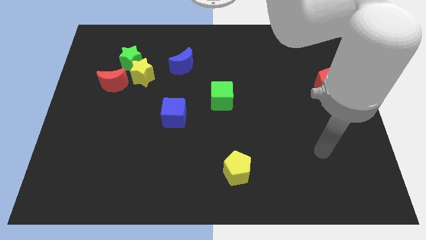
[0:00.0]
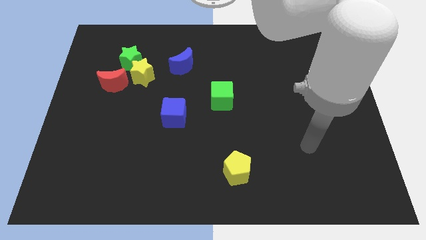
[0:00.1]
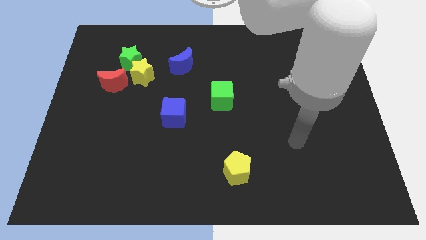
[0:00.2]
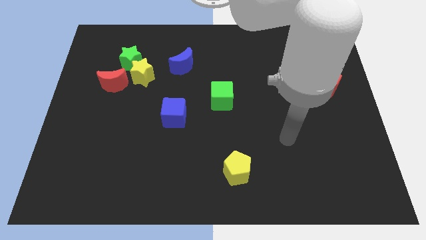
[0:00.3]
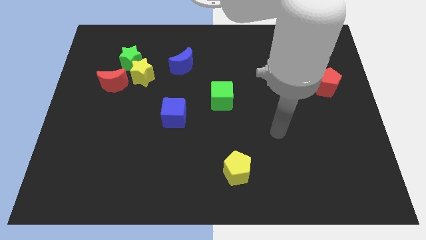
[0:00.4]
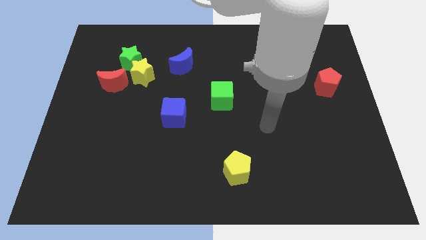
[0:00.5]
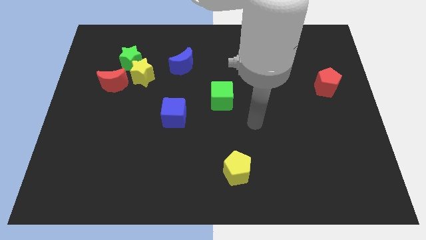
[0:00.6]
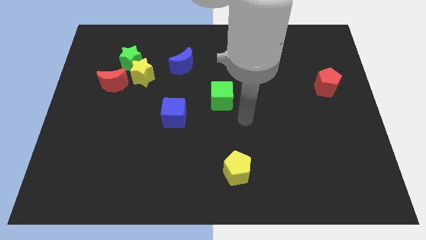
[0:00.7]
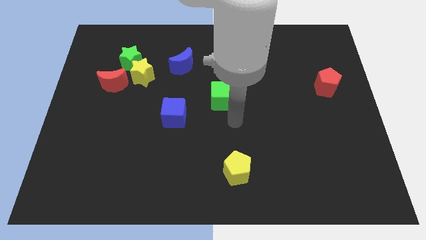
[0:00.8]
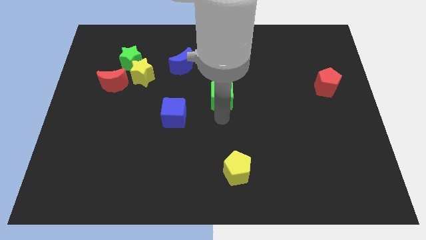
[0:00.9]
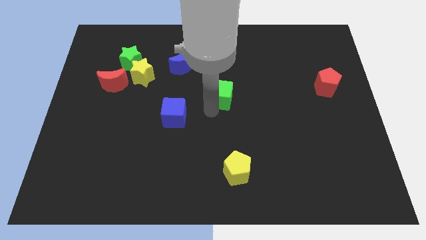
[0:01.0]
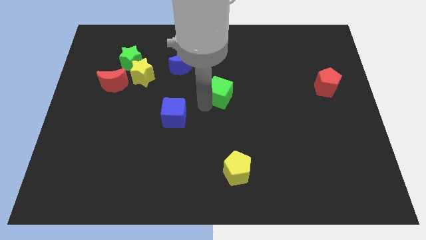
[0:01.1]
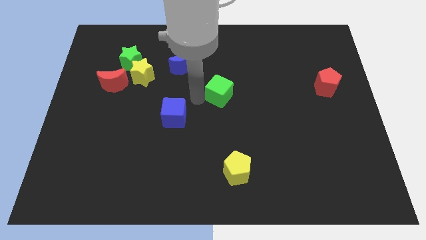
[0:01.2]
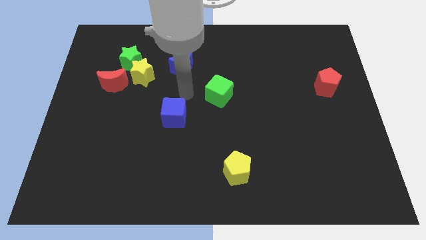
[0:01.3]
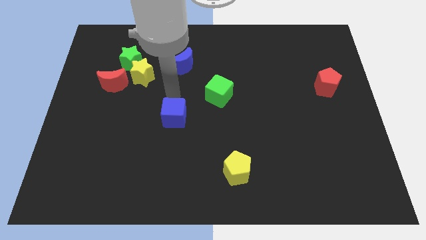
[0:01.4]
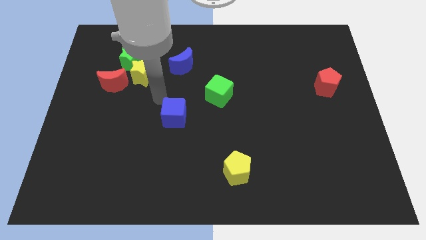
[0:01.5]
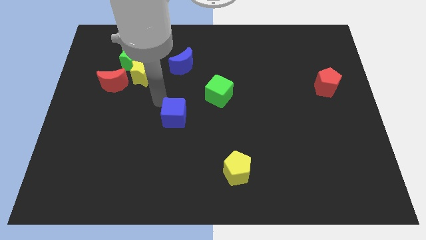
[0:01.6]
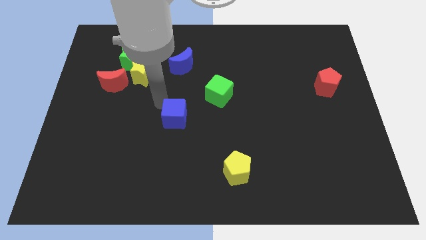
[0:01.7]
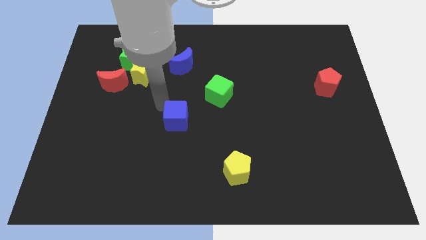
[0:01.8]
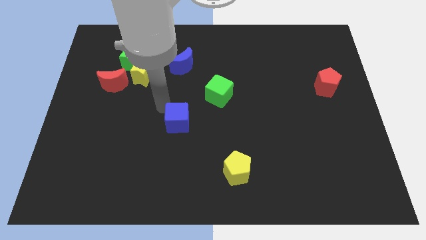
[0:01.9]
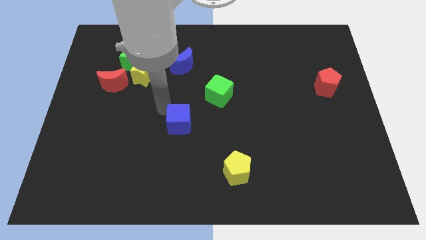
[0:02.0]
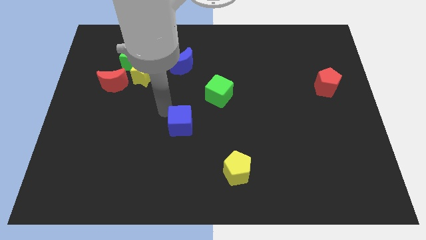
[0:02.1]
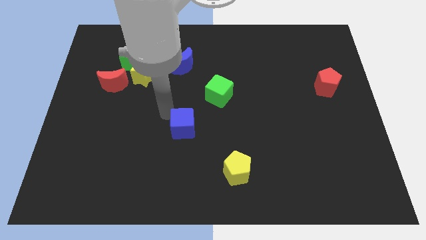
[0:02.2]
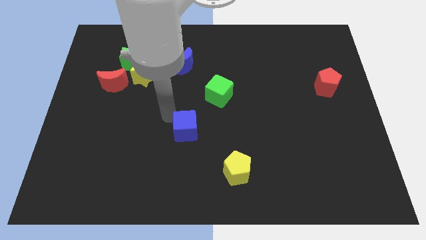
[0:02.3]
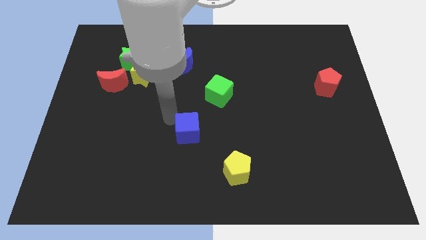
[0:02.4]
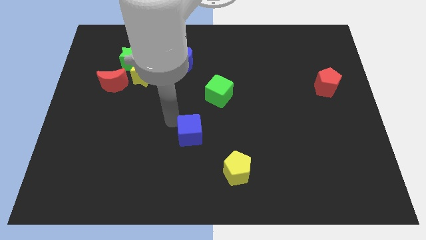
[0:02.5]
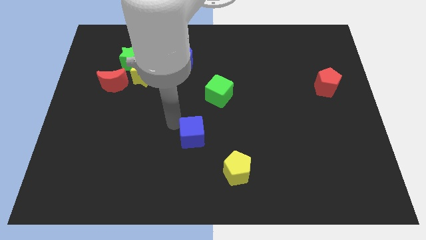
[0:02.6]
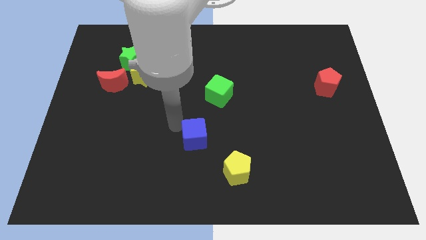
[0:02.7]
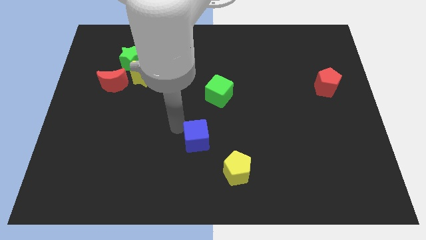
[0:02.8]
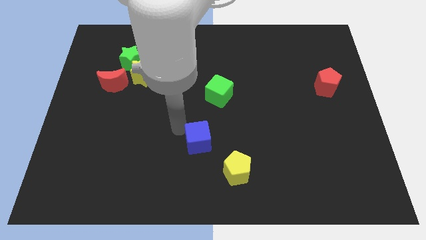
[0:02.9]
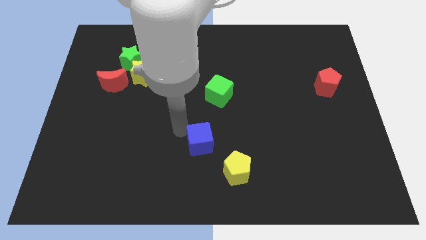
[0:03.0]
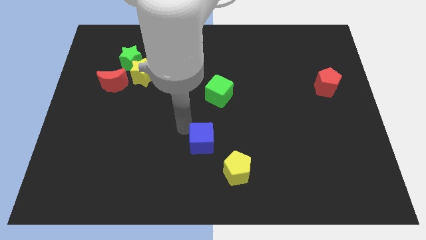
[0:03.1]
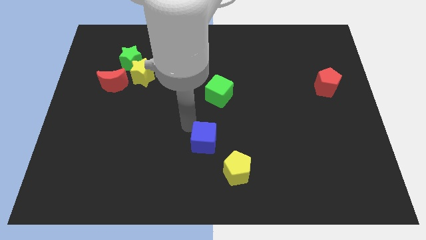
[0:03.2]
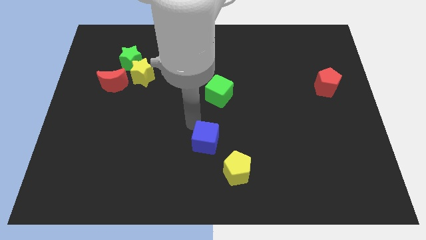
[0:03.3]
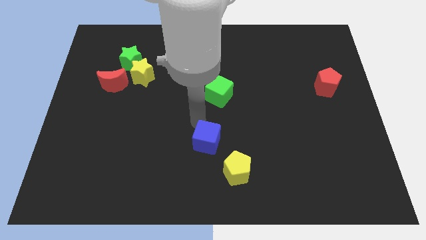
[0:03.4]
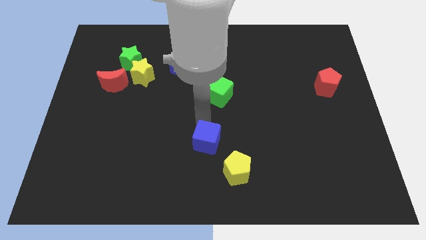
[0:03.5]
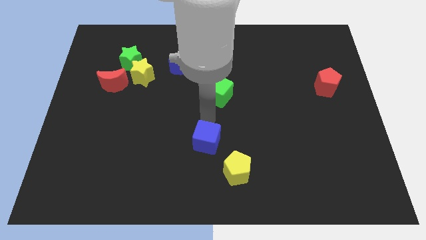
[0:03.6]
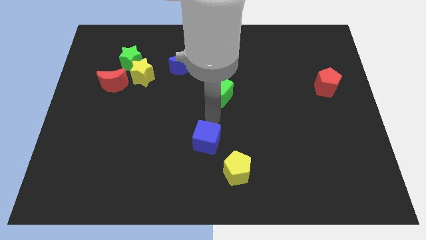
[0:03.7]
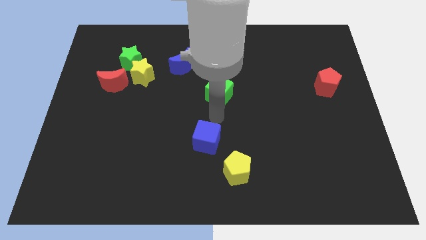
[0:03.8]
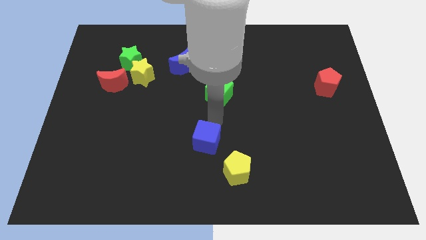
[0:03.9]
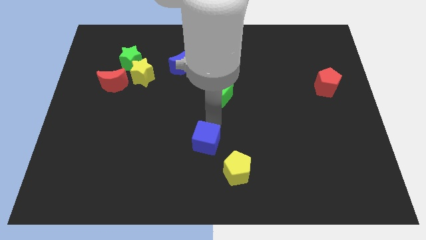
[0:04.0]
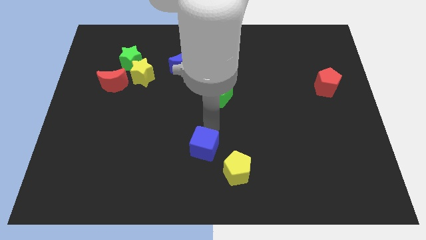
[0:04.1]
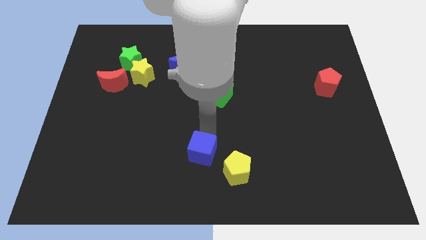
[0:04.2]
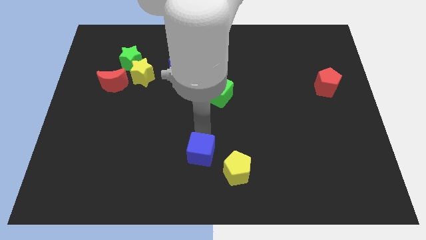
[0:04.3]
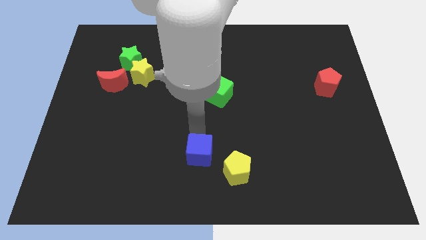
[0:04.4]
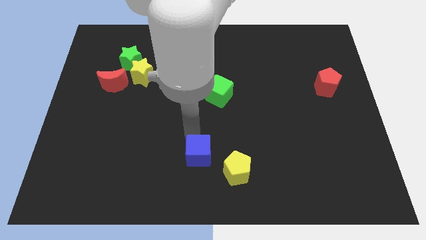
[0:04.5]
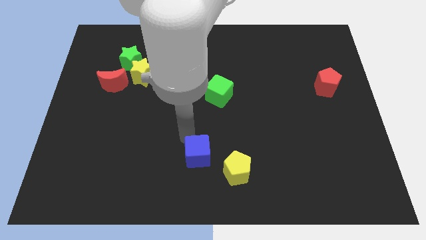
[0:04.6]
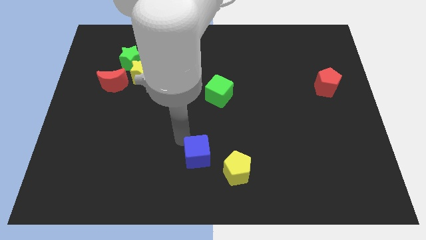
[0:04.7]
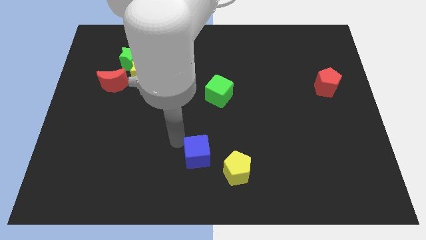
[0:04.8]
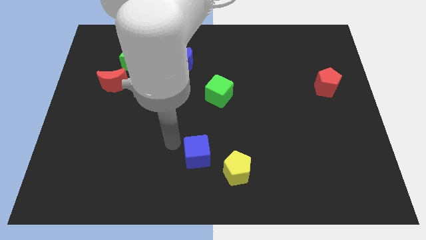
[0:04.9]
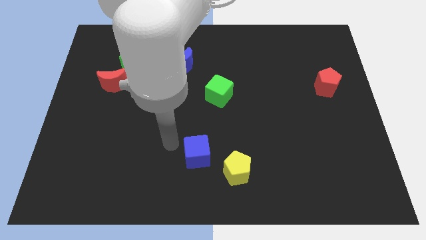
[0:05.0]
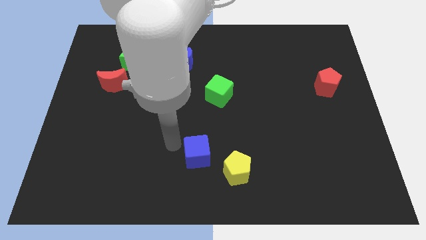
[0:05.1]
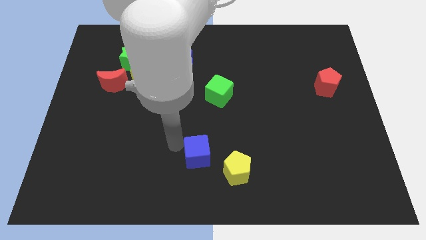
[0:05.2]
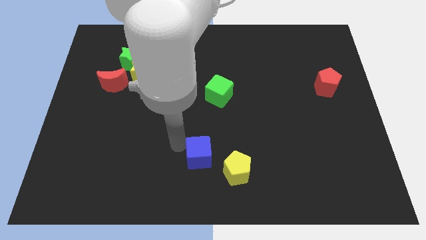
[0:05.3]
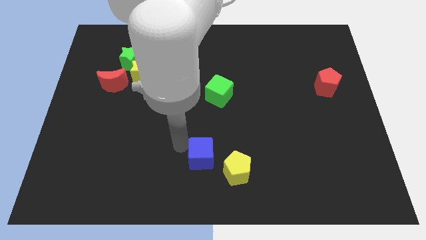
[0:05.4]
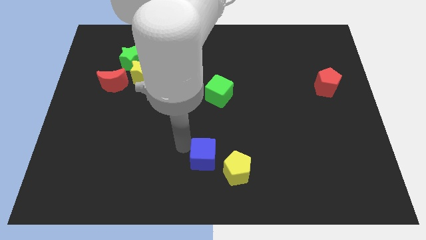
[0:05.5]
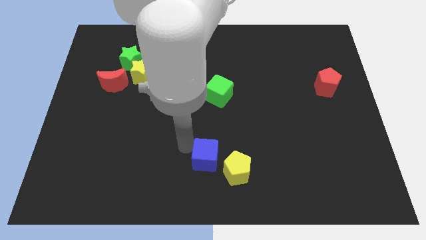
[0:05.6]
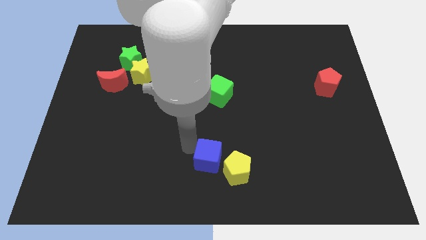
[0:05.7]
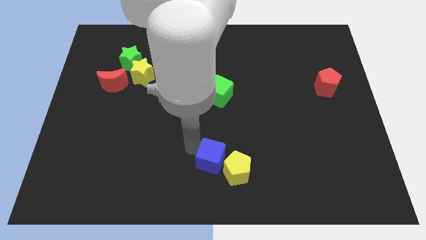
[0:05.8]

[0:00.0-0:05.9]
push the blue cube towards the yellow pentagon

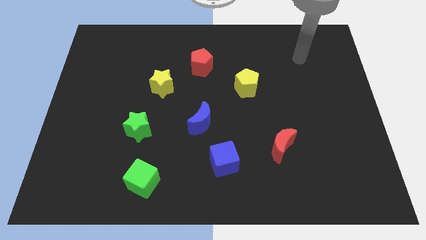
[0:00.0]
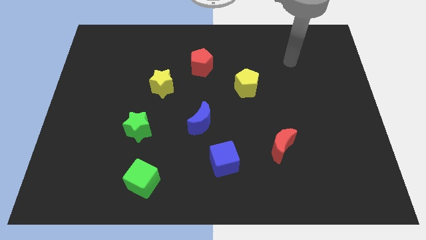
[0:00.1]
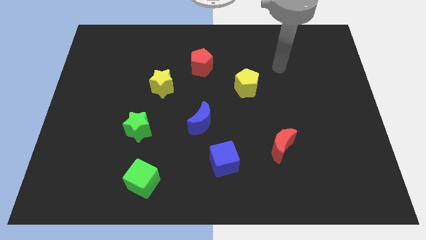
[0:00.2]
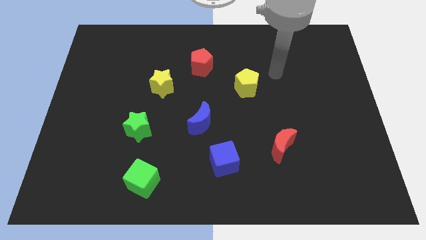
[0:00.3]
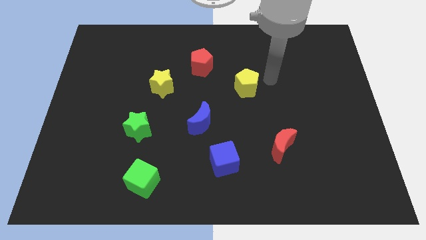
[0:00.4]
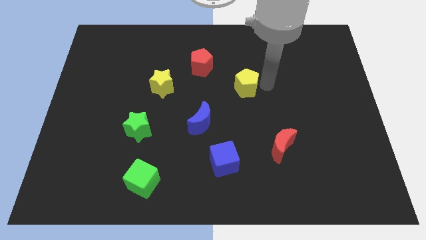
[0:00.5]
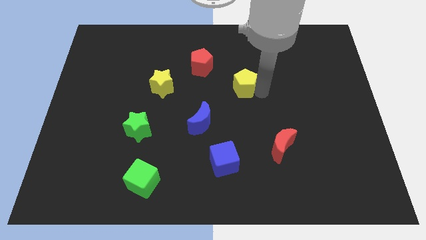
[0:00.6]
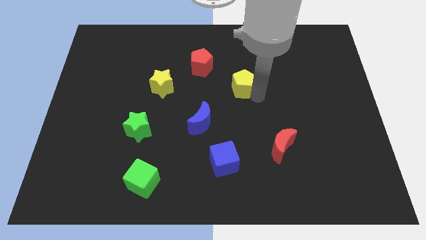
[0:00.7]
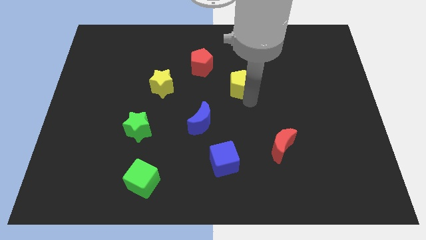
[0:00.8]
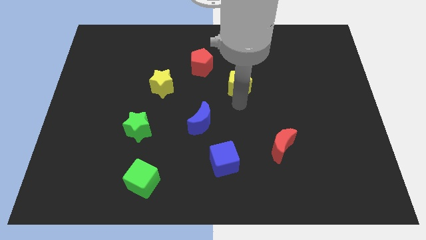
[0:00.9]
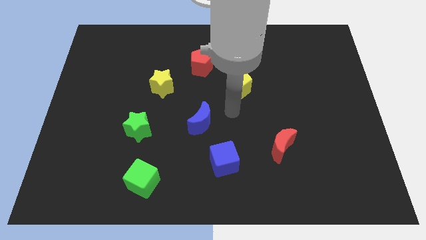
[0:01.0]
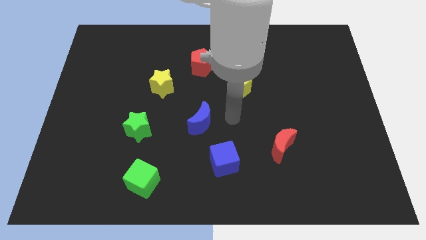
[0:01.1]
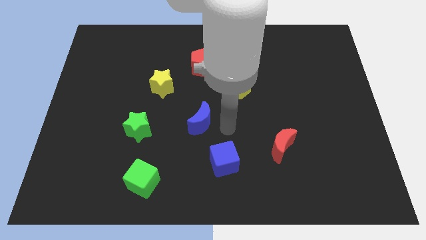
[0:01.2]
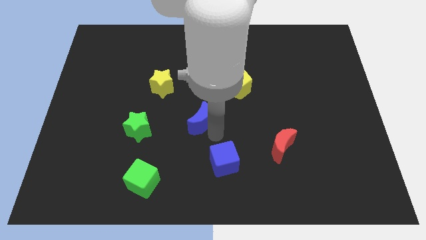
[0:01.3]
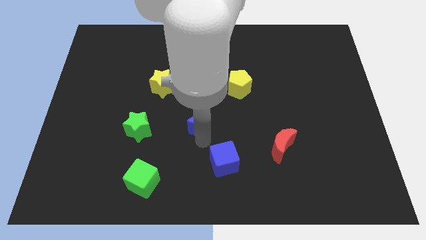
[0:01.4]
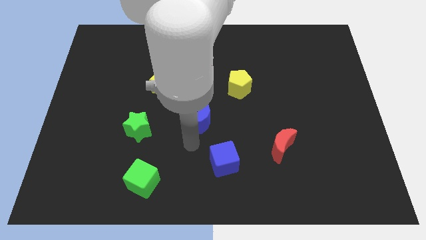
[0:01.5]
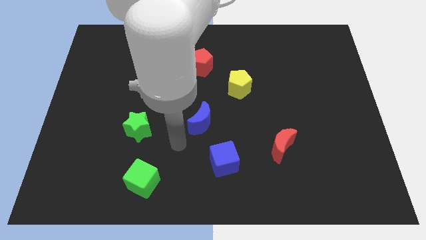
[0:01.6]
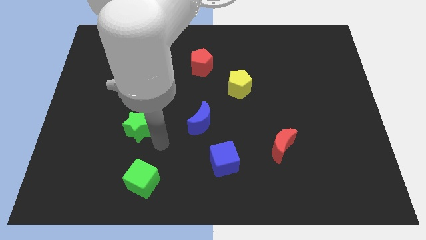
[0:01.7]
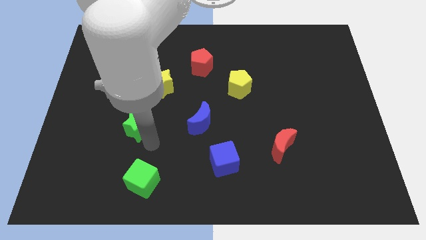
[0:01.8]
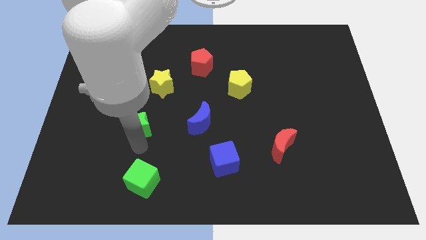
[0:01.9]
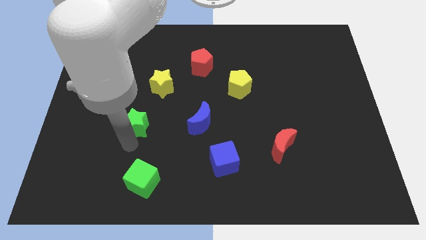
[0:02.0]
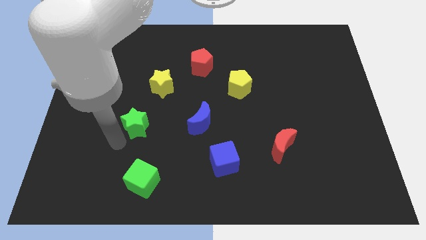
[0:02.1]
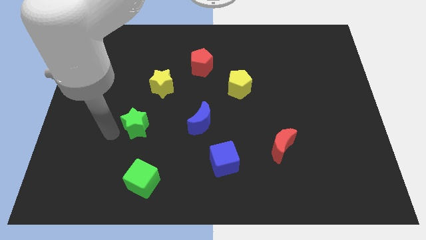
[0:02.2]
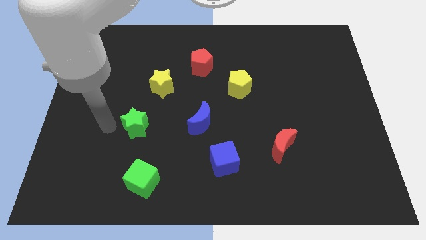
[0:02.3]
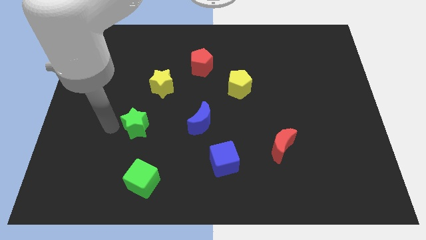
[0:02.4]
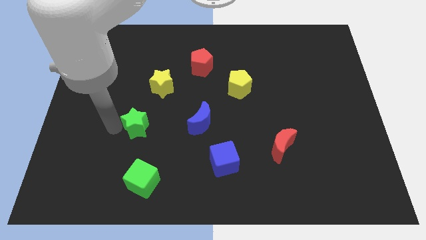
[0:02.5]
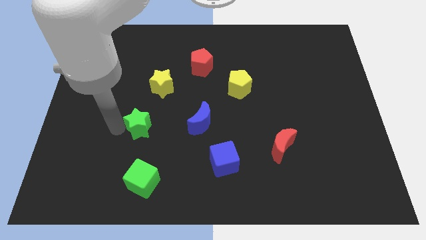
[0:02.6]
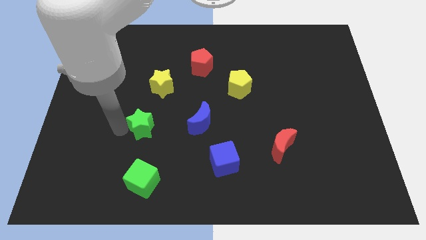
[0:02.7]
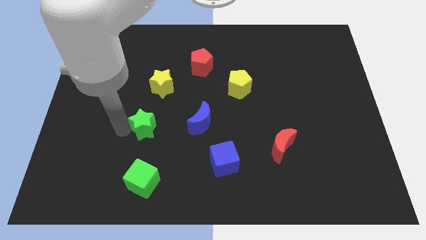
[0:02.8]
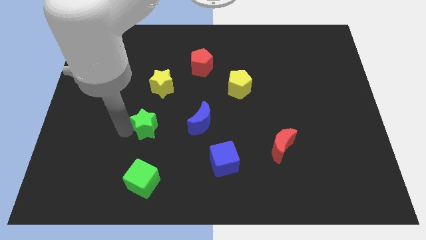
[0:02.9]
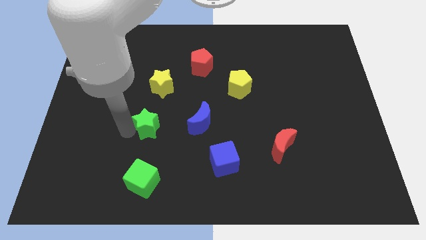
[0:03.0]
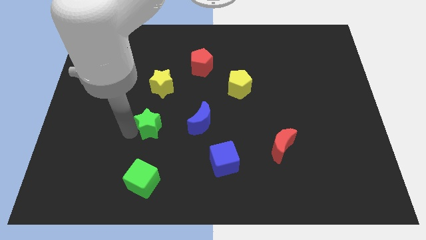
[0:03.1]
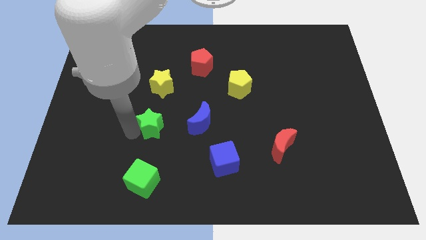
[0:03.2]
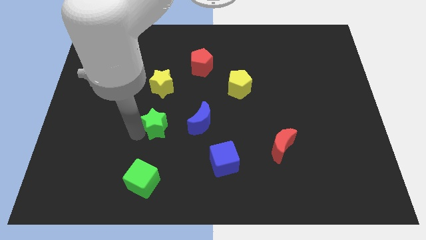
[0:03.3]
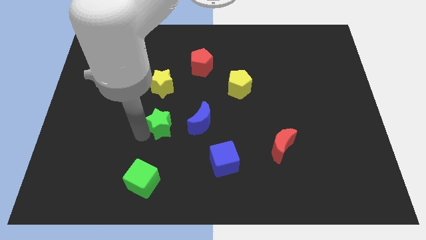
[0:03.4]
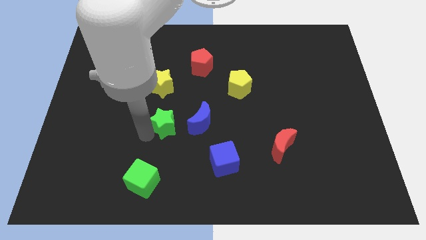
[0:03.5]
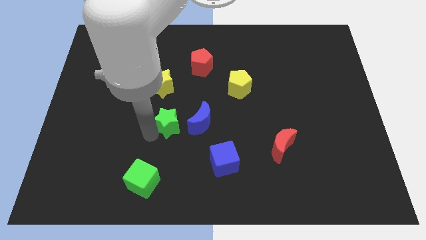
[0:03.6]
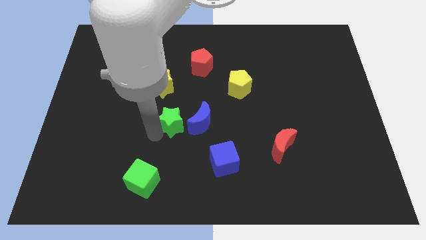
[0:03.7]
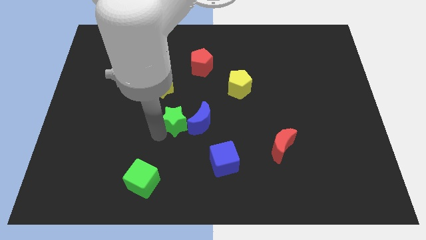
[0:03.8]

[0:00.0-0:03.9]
slide the green star to the blue moon
